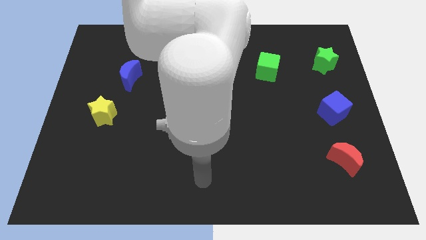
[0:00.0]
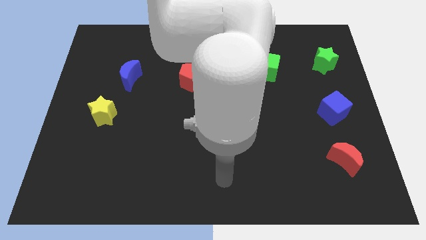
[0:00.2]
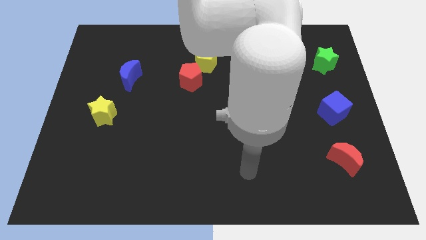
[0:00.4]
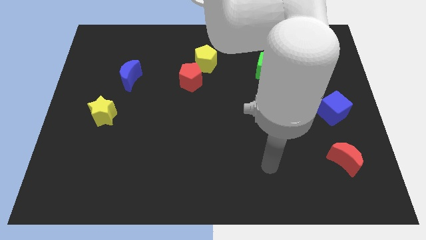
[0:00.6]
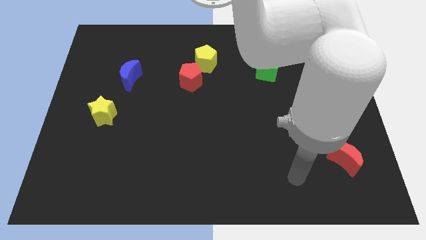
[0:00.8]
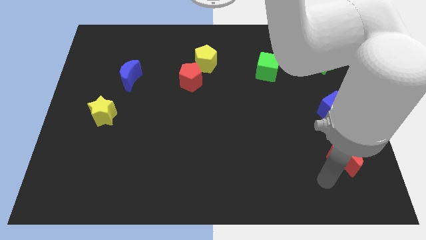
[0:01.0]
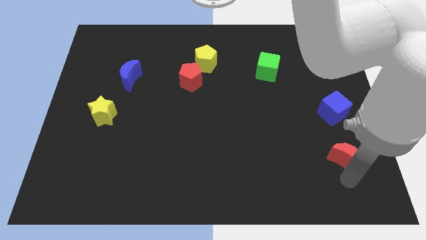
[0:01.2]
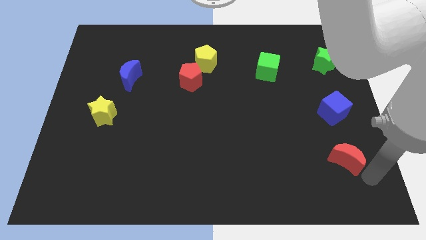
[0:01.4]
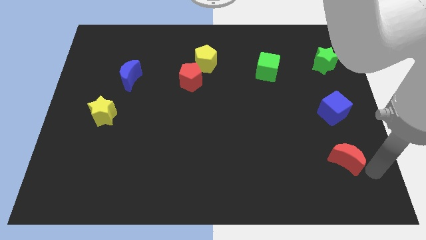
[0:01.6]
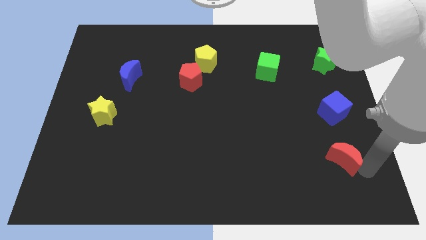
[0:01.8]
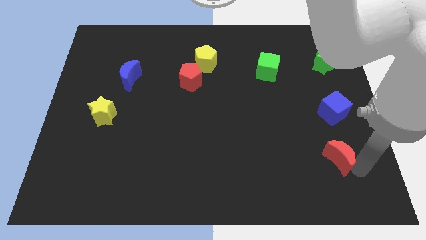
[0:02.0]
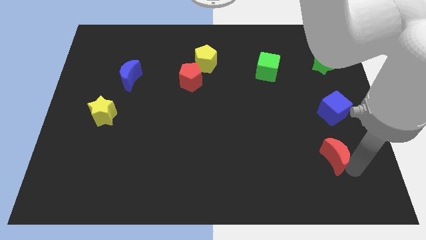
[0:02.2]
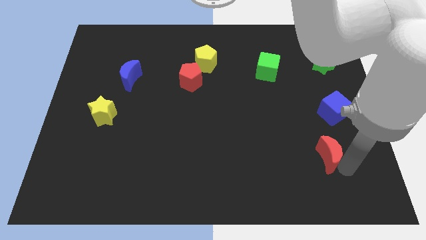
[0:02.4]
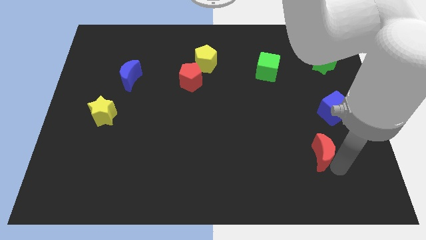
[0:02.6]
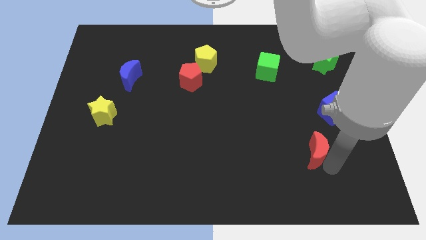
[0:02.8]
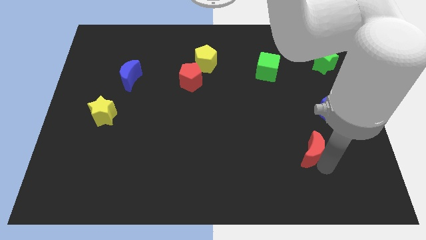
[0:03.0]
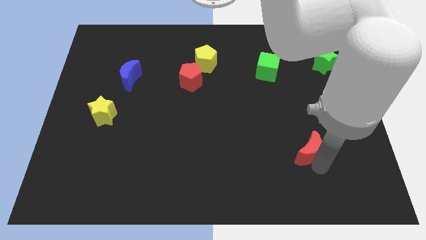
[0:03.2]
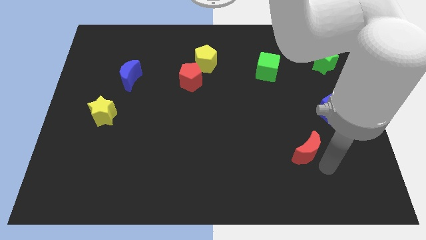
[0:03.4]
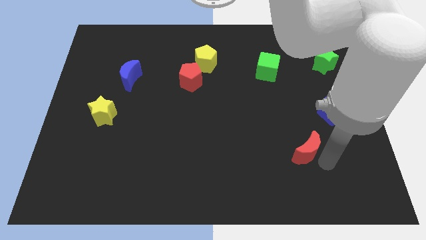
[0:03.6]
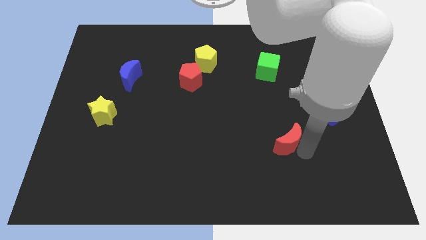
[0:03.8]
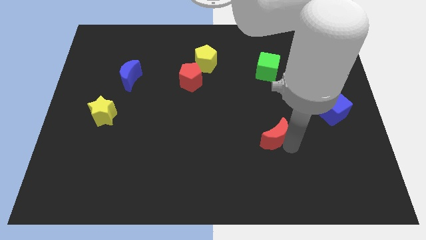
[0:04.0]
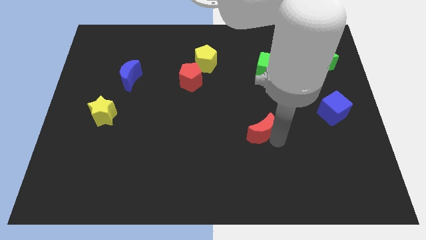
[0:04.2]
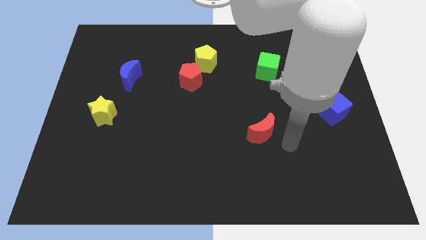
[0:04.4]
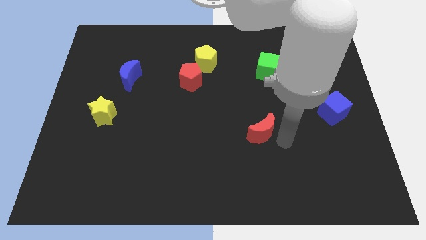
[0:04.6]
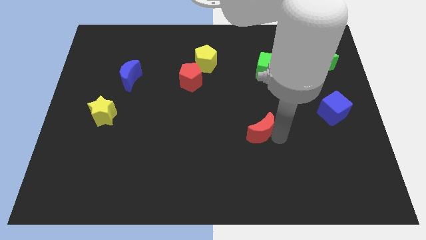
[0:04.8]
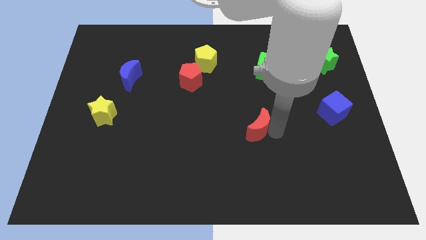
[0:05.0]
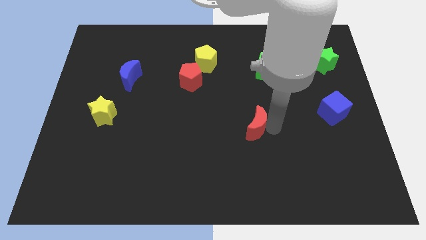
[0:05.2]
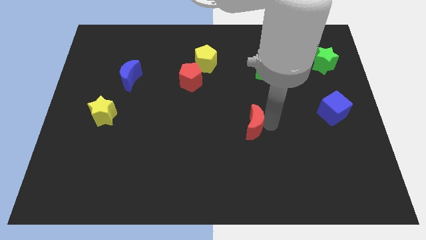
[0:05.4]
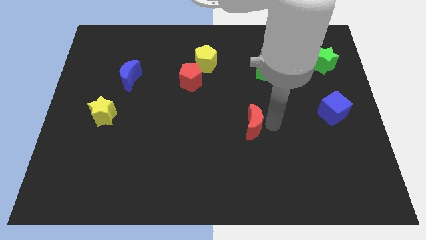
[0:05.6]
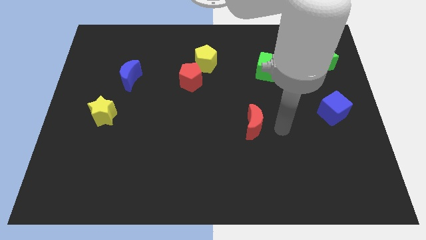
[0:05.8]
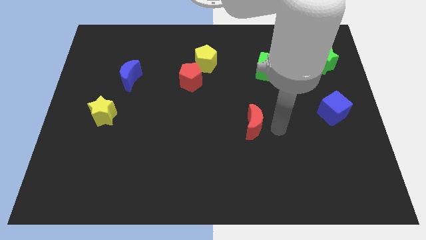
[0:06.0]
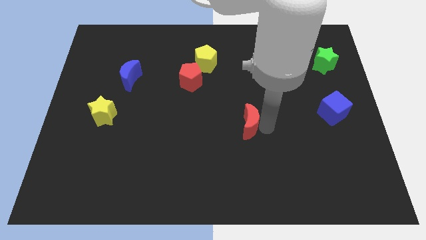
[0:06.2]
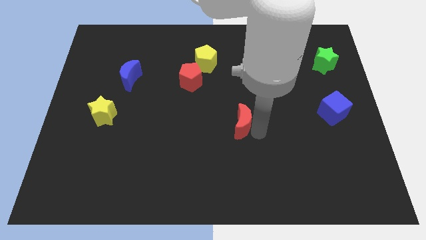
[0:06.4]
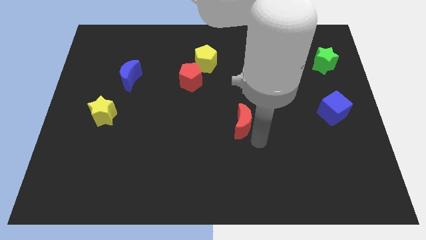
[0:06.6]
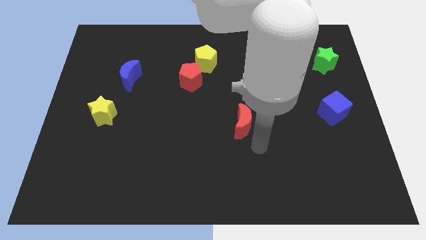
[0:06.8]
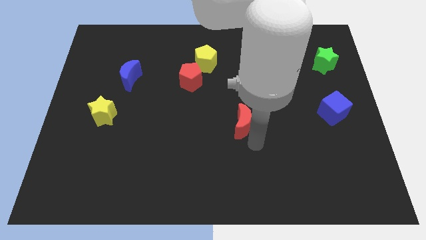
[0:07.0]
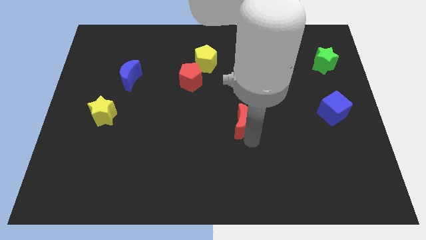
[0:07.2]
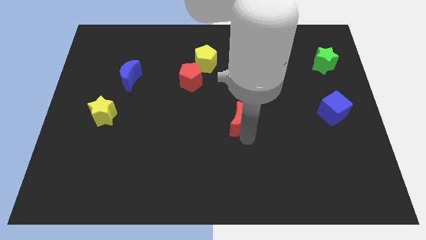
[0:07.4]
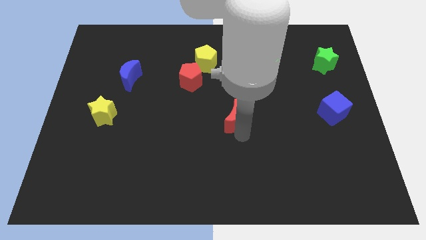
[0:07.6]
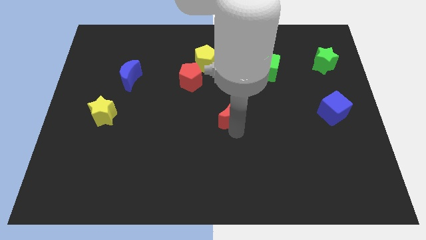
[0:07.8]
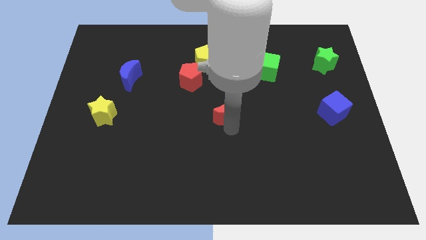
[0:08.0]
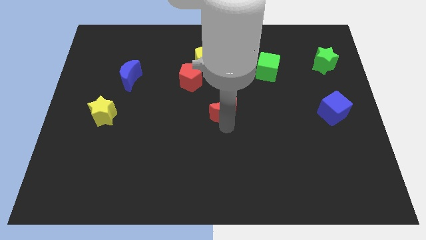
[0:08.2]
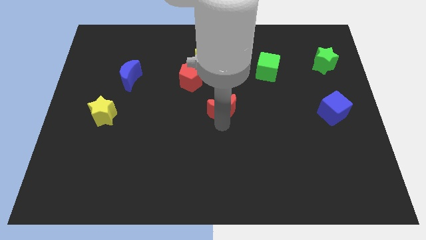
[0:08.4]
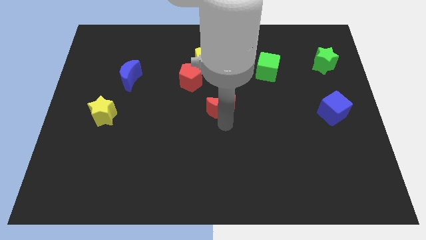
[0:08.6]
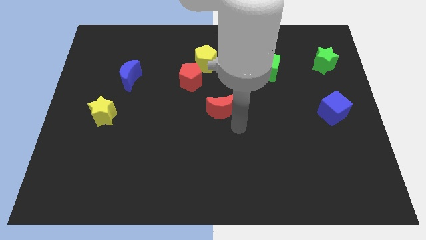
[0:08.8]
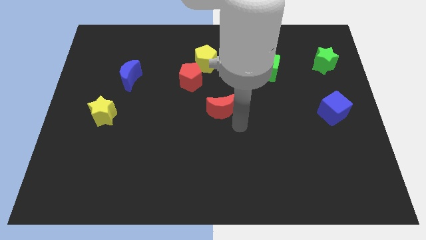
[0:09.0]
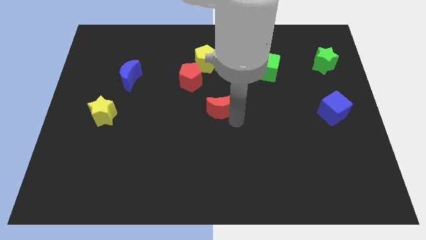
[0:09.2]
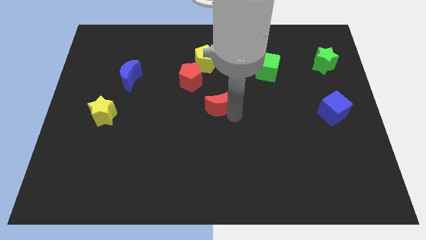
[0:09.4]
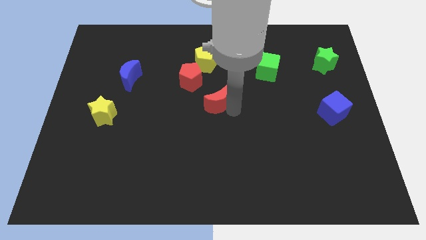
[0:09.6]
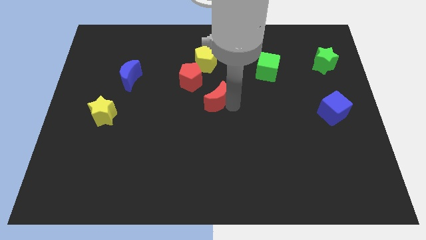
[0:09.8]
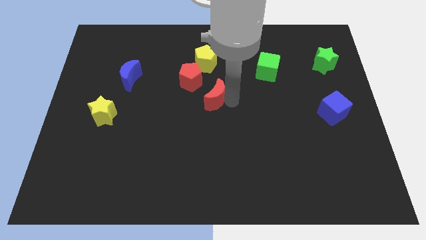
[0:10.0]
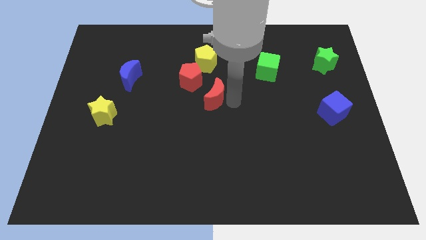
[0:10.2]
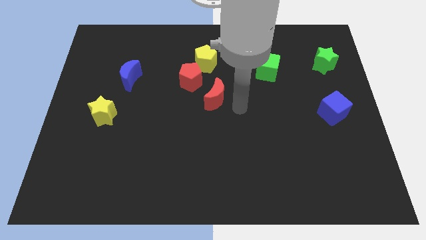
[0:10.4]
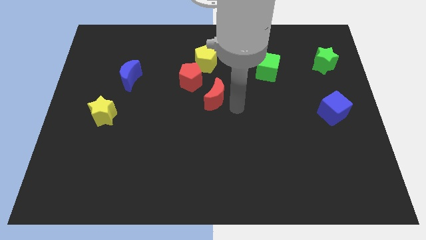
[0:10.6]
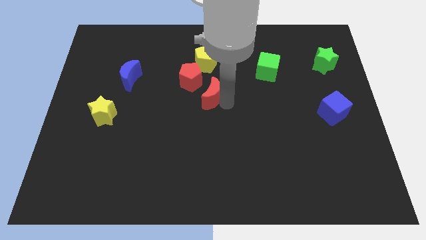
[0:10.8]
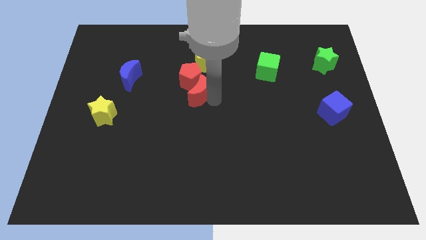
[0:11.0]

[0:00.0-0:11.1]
put the red moon to the red pentagon

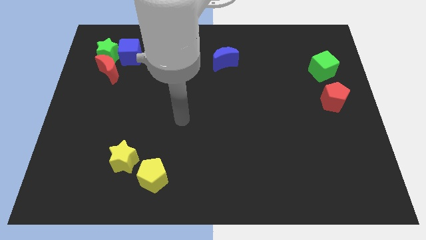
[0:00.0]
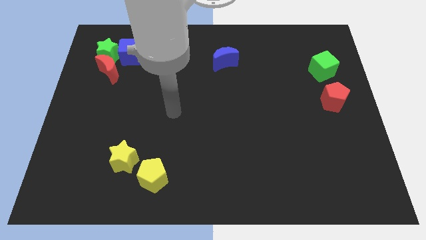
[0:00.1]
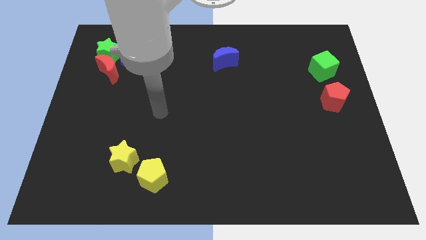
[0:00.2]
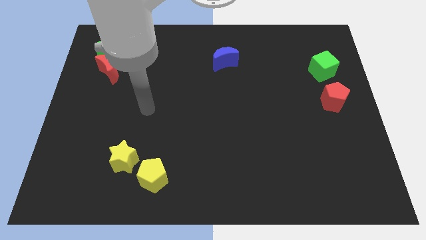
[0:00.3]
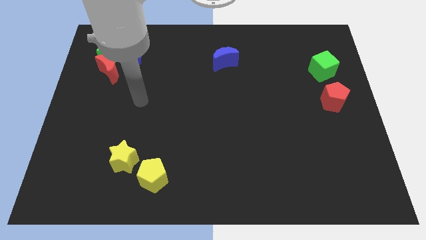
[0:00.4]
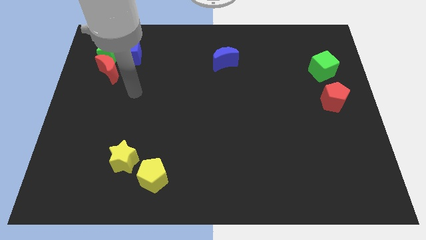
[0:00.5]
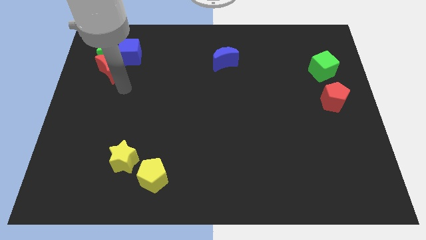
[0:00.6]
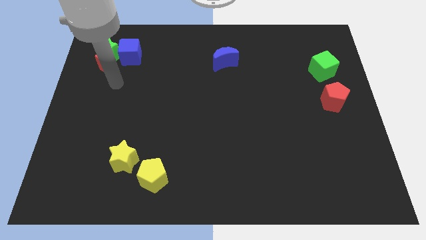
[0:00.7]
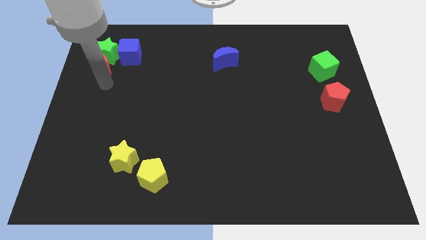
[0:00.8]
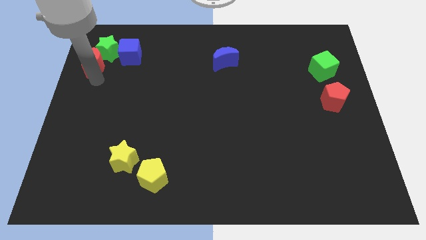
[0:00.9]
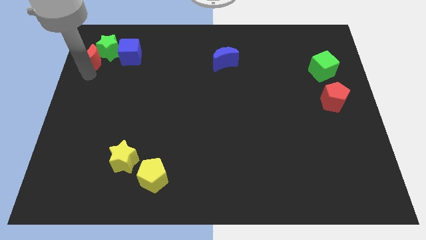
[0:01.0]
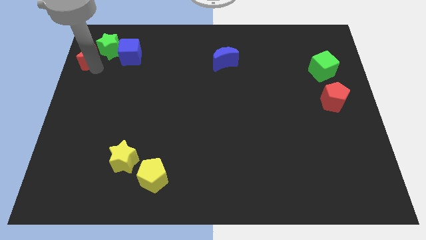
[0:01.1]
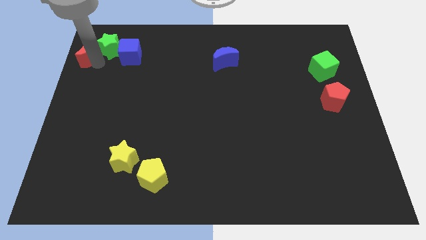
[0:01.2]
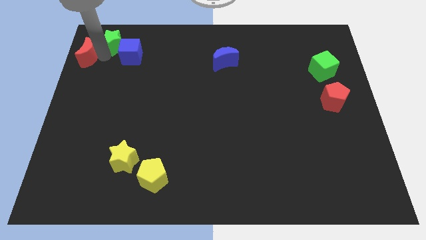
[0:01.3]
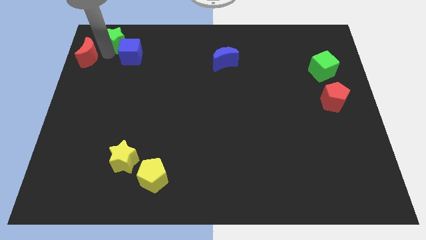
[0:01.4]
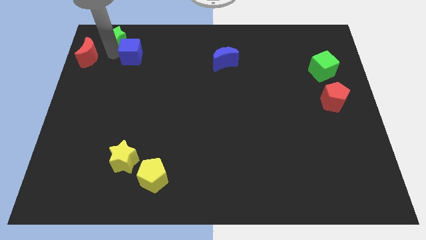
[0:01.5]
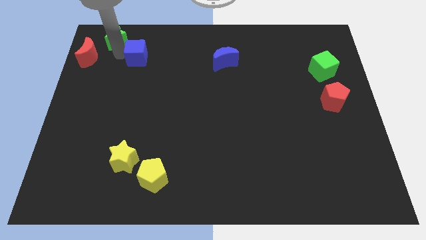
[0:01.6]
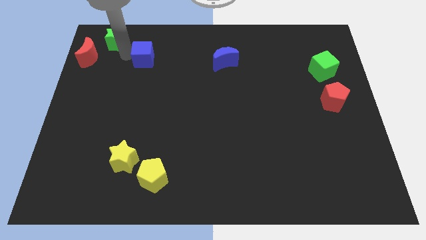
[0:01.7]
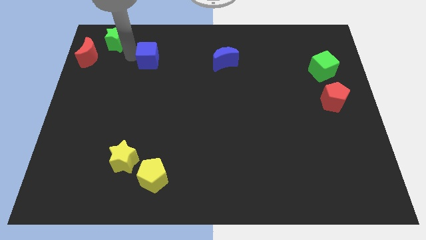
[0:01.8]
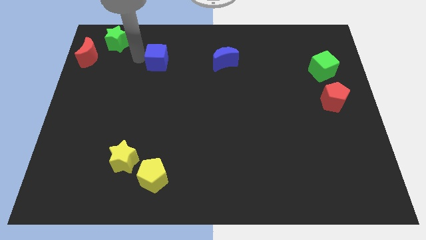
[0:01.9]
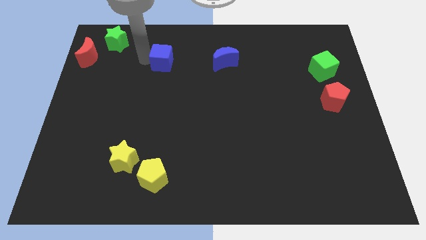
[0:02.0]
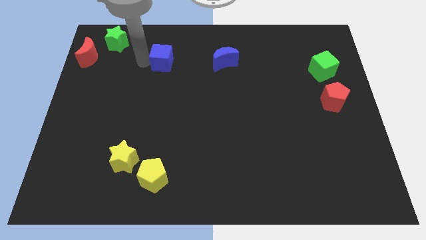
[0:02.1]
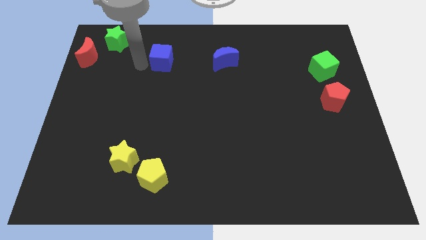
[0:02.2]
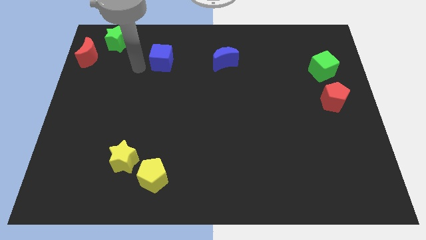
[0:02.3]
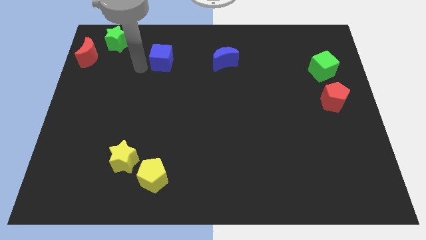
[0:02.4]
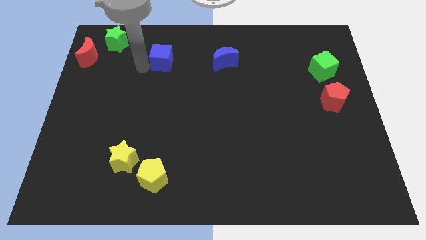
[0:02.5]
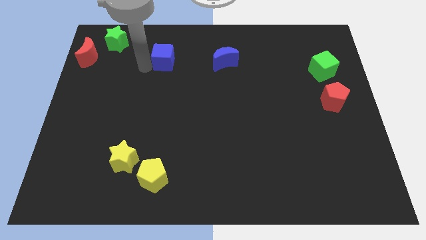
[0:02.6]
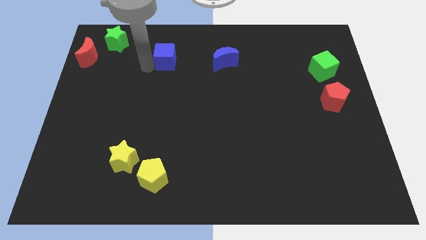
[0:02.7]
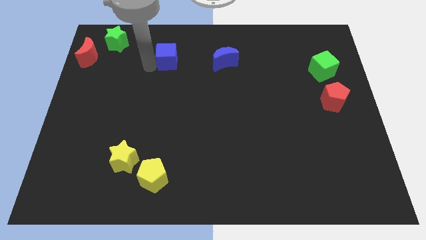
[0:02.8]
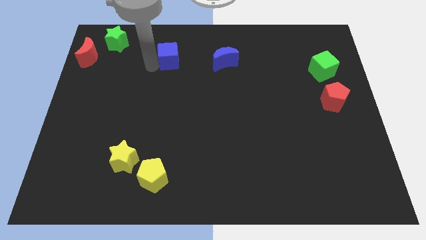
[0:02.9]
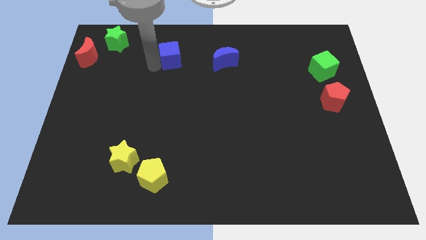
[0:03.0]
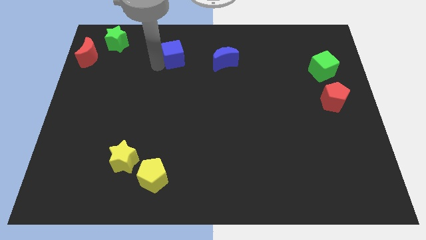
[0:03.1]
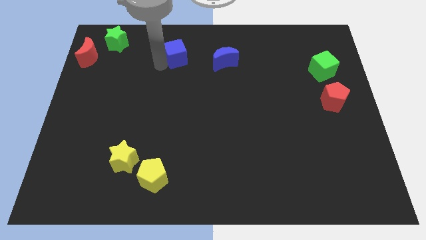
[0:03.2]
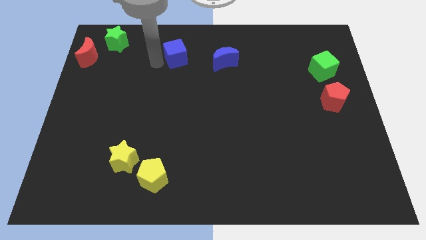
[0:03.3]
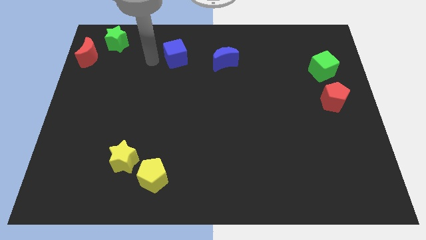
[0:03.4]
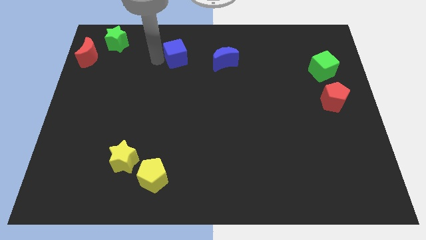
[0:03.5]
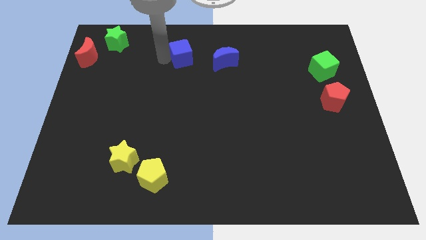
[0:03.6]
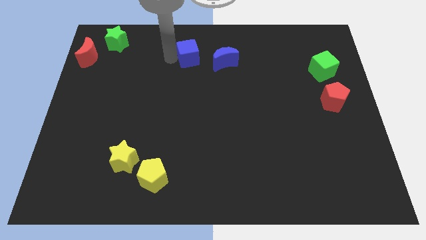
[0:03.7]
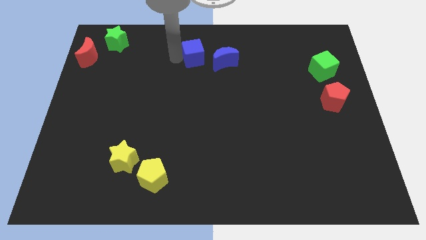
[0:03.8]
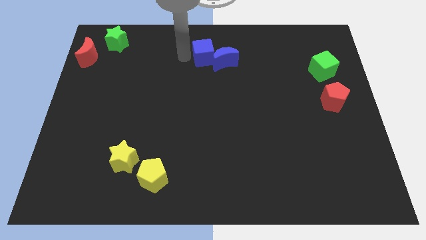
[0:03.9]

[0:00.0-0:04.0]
move the blue cube to the blue moon
